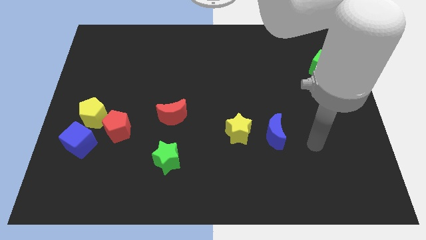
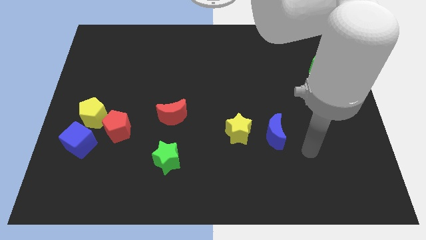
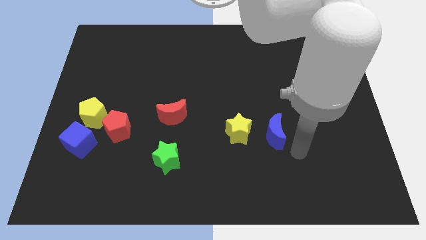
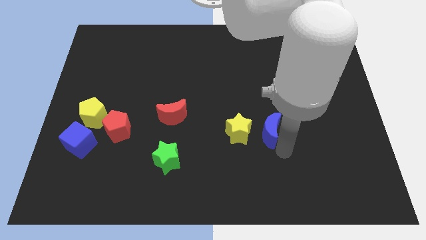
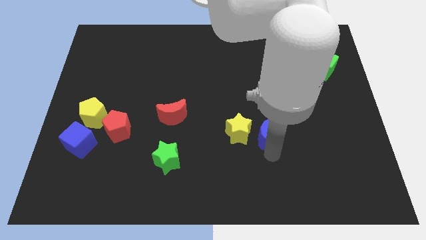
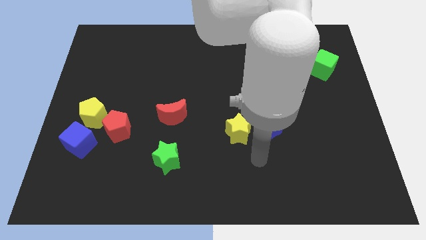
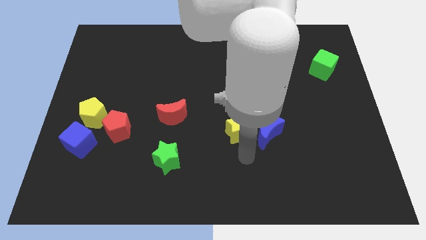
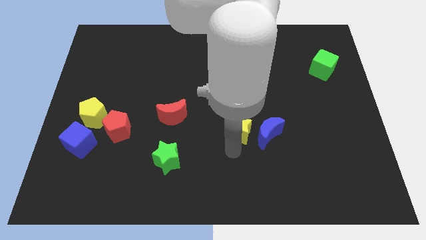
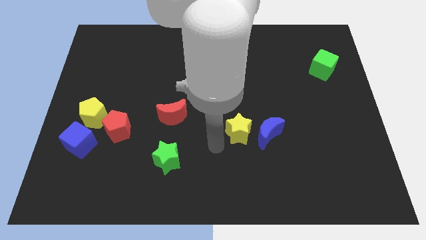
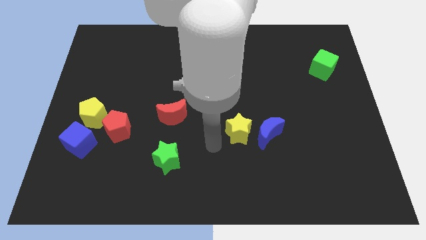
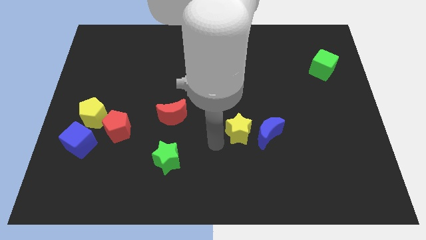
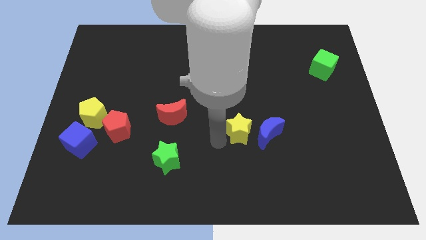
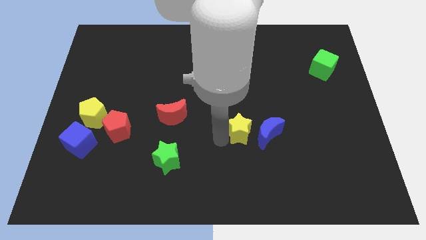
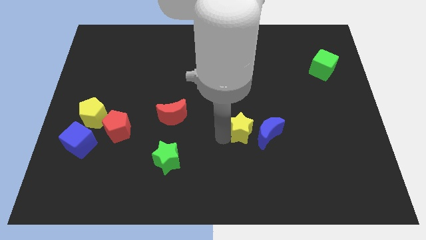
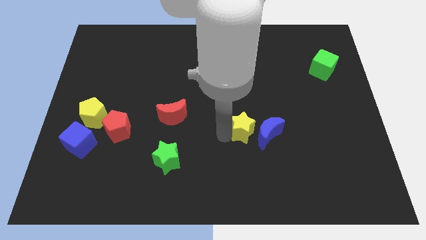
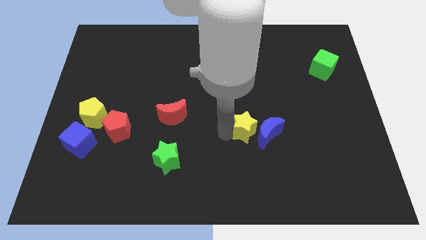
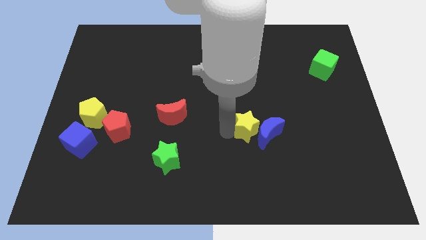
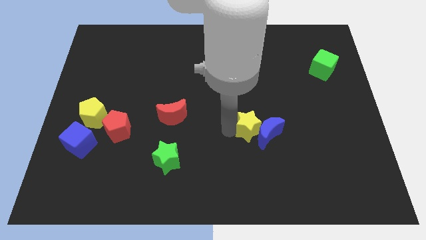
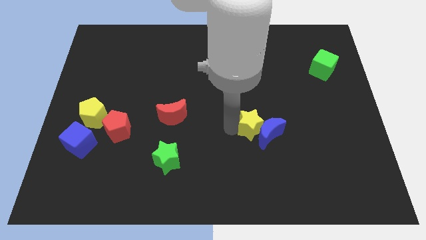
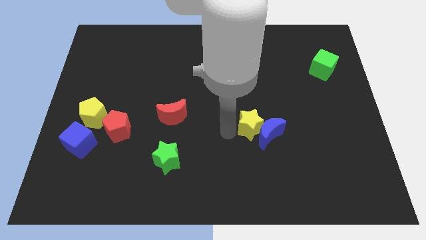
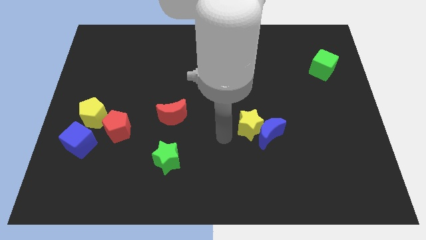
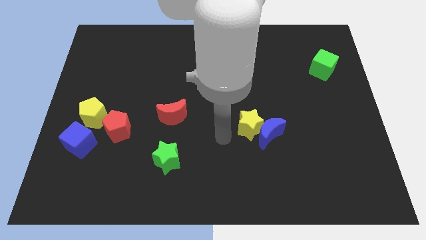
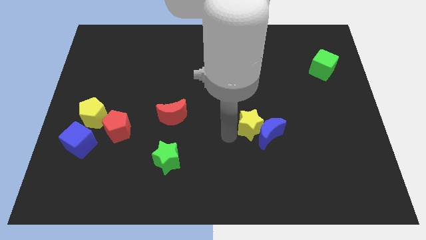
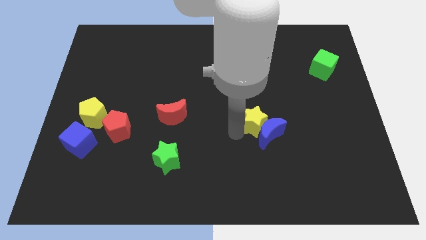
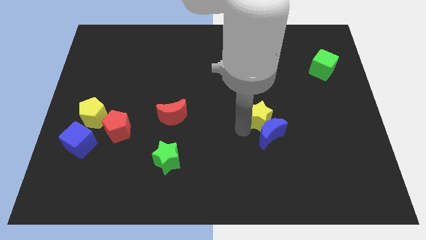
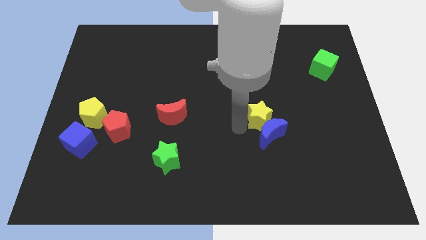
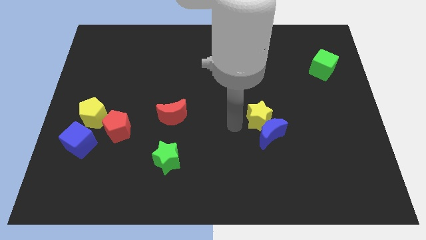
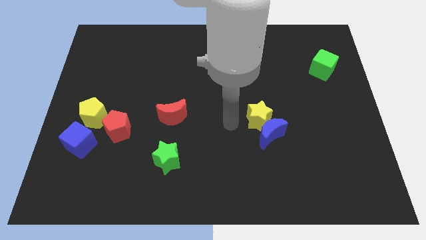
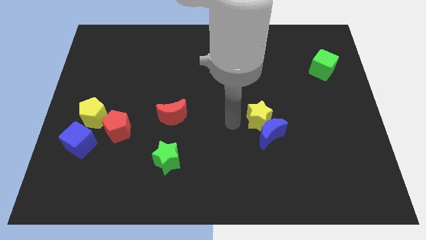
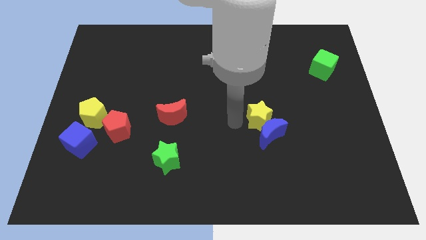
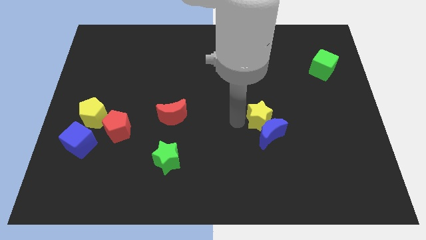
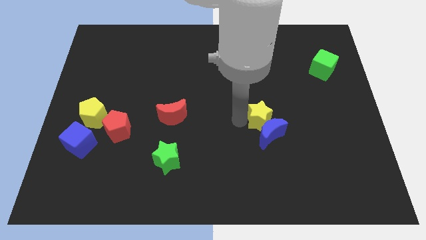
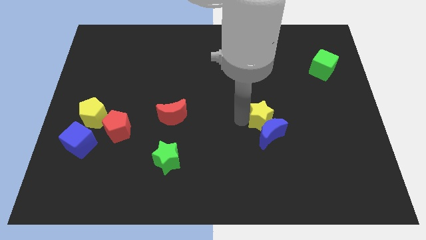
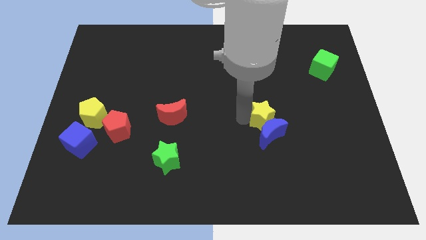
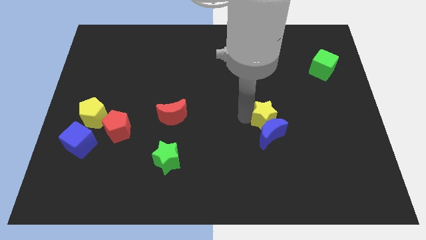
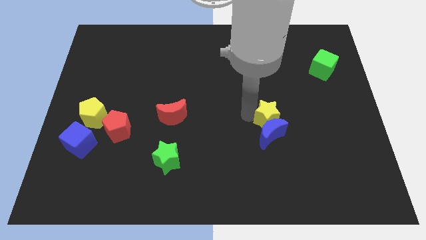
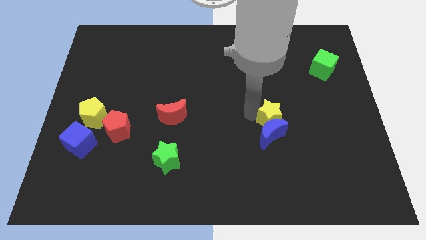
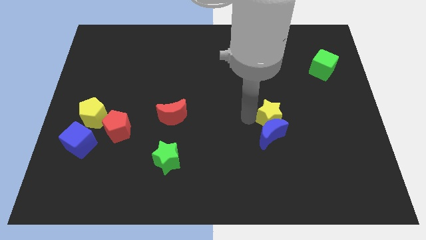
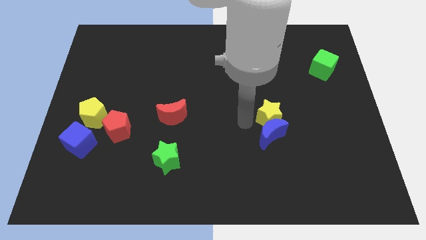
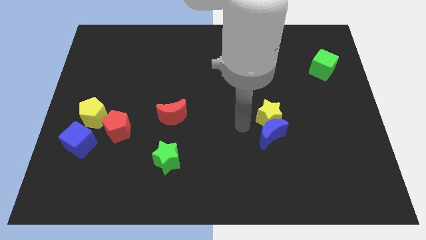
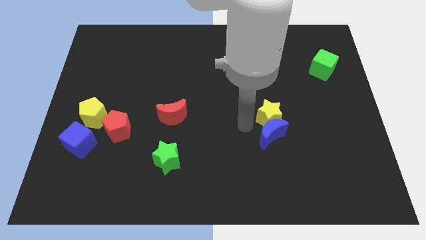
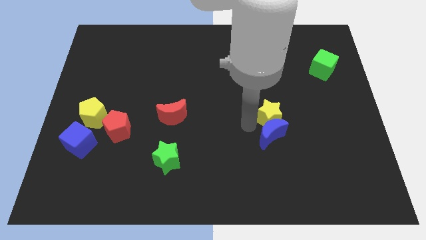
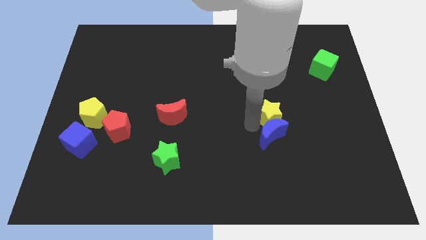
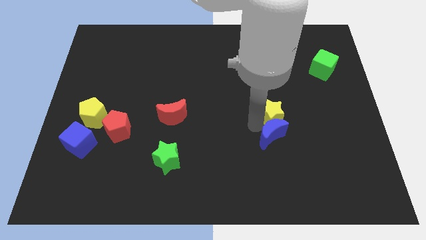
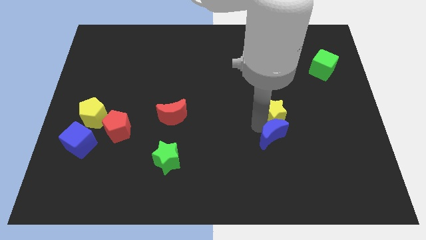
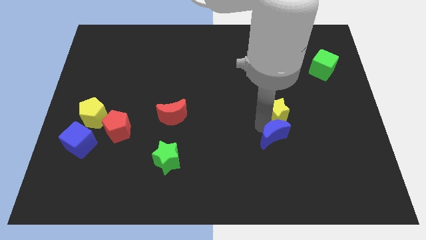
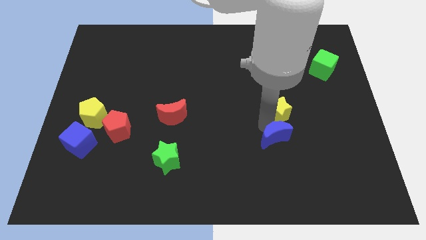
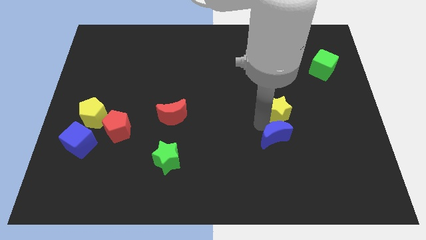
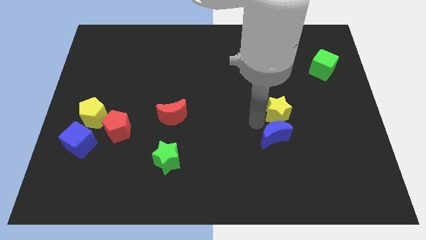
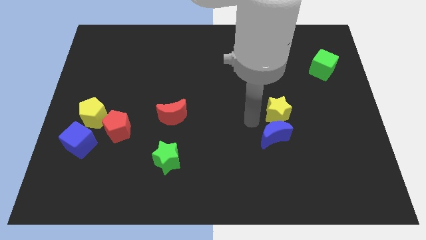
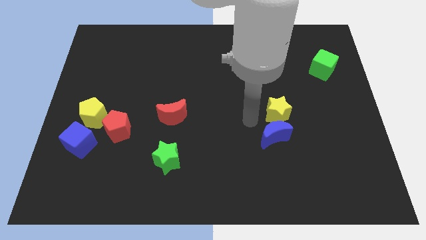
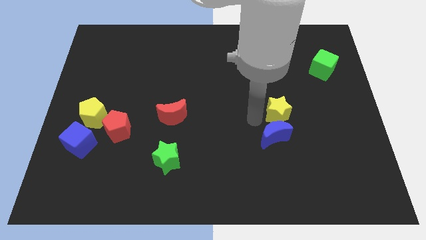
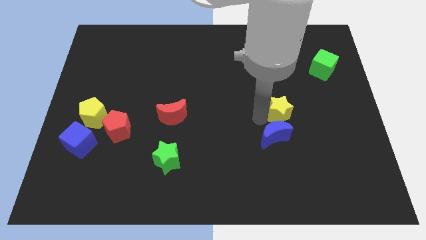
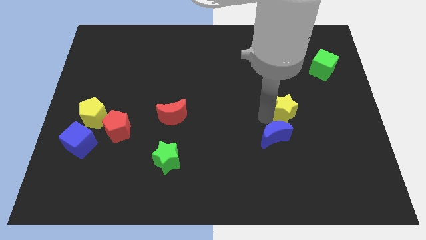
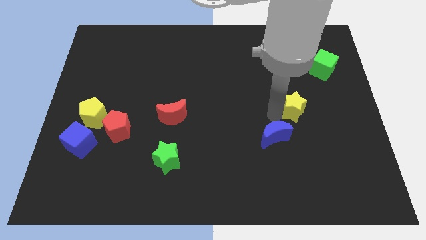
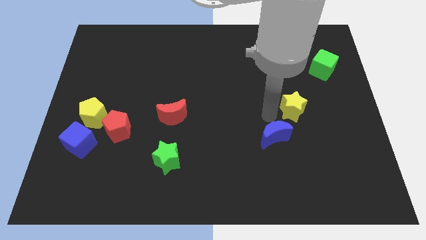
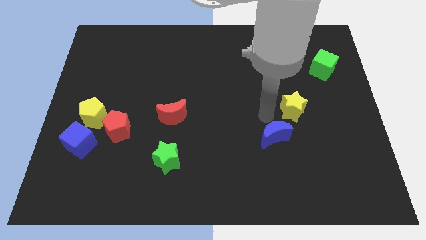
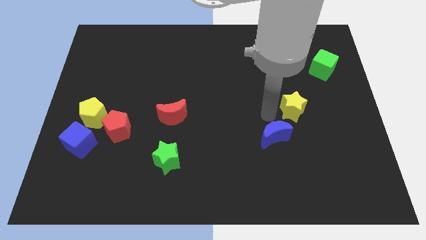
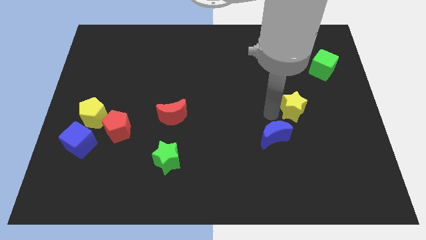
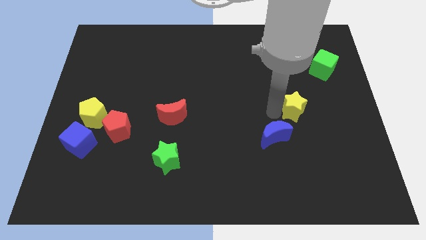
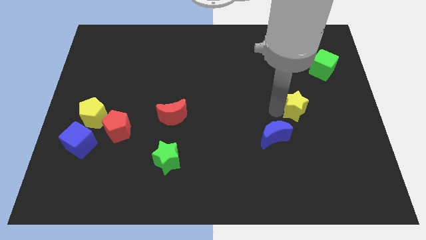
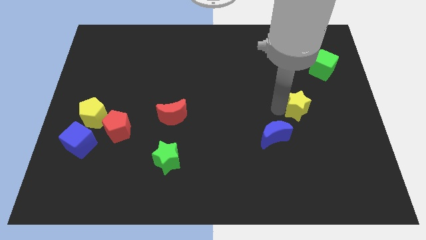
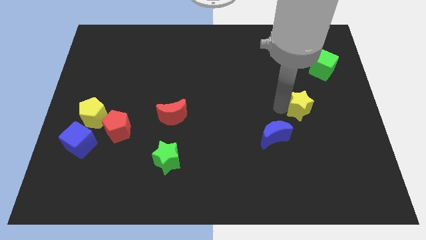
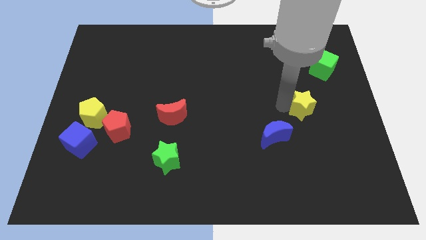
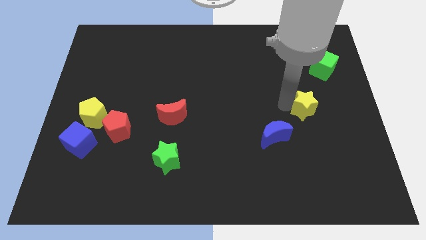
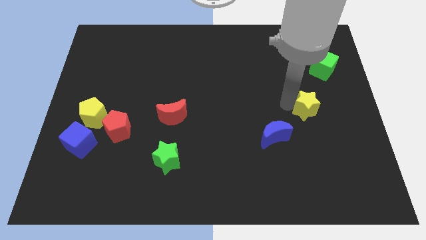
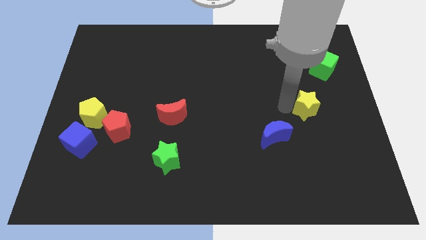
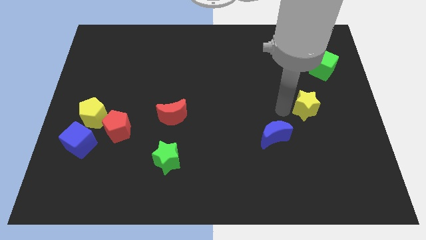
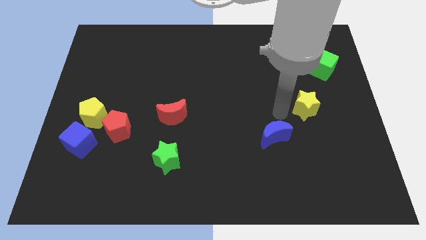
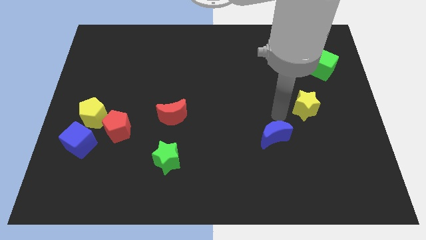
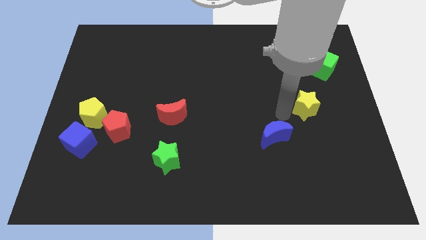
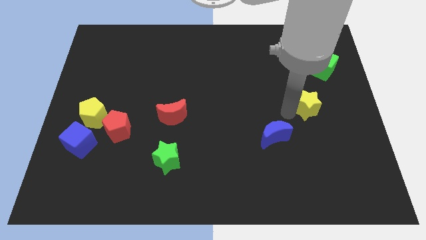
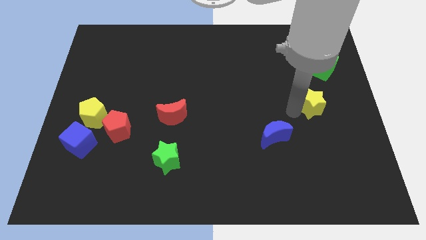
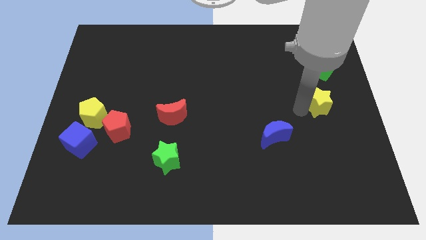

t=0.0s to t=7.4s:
push the yellow star to the bottom side of the green cube
